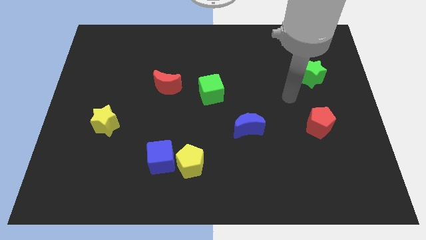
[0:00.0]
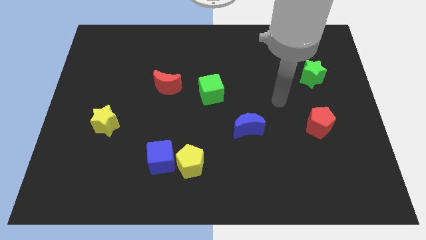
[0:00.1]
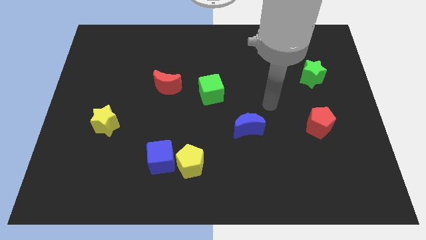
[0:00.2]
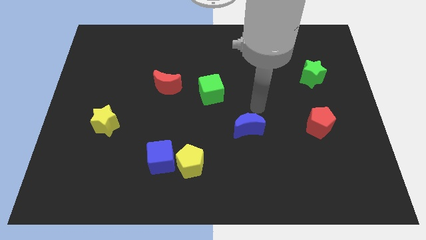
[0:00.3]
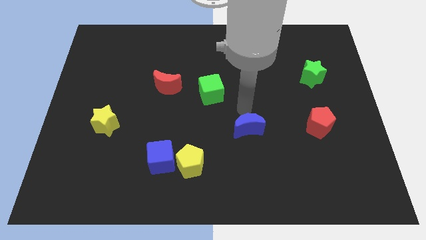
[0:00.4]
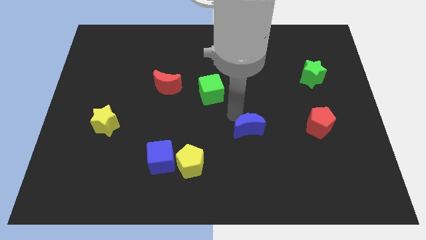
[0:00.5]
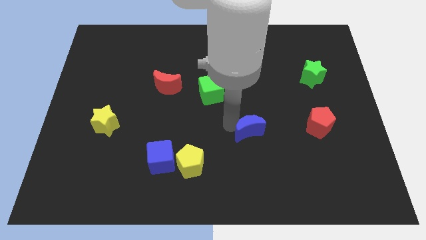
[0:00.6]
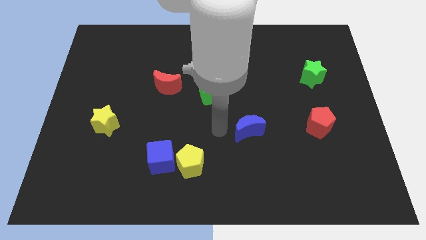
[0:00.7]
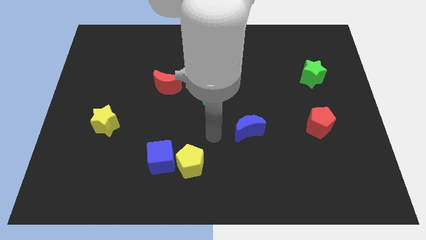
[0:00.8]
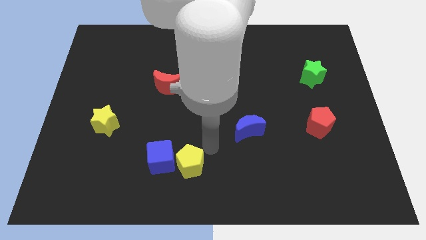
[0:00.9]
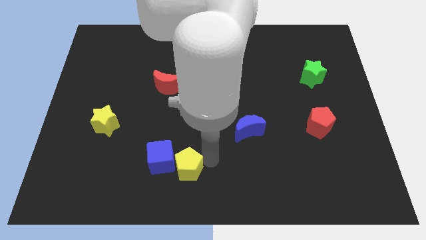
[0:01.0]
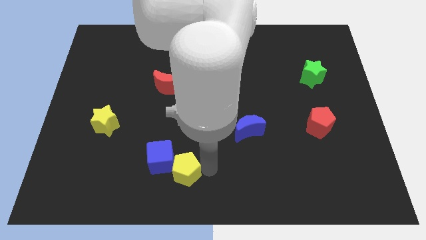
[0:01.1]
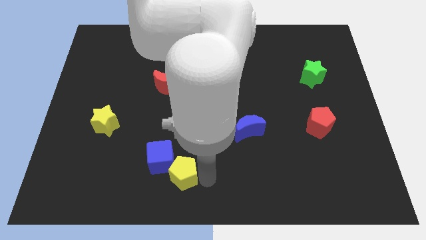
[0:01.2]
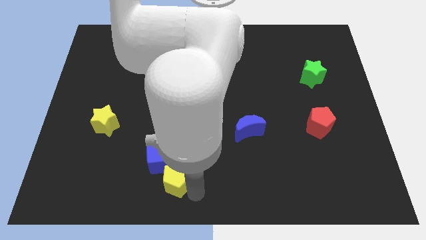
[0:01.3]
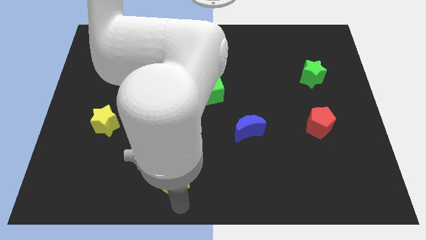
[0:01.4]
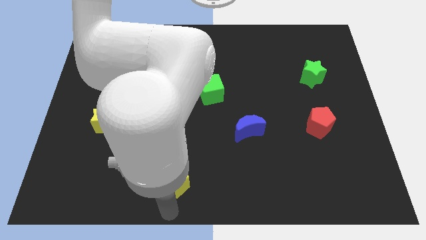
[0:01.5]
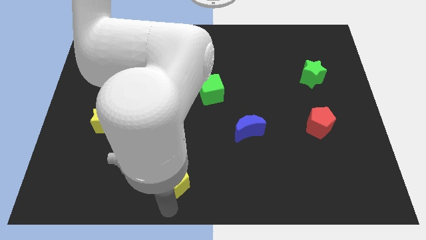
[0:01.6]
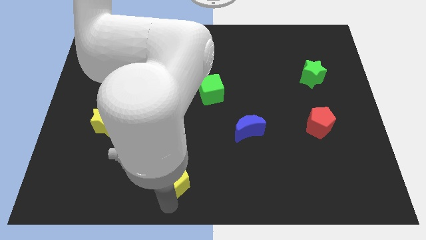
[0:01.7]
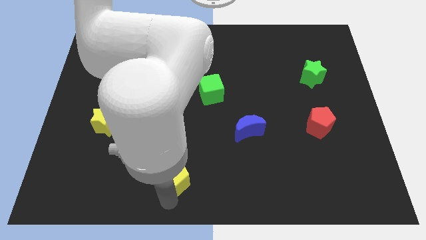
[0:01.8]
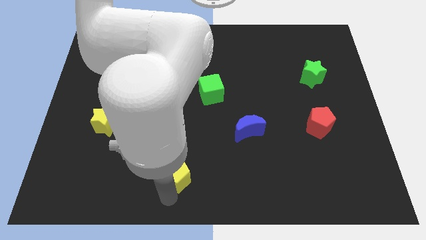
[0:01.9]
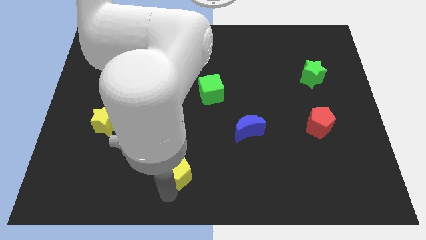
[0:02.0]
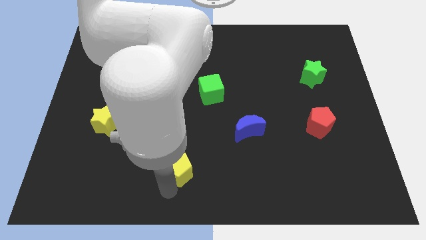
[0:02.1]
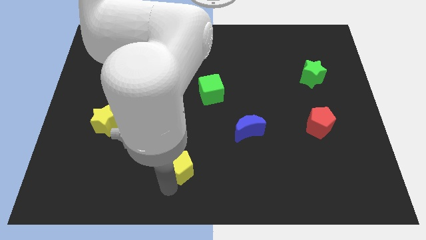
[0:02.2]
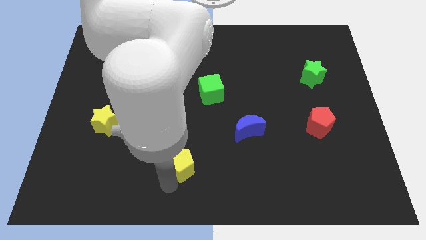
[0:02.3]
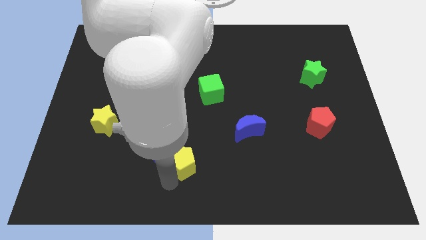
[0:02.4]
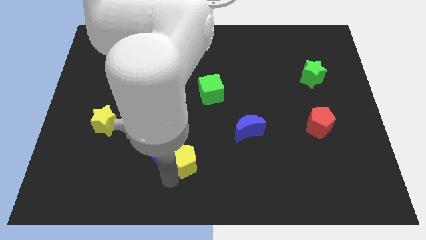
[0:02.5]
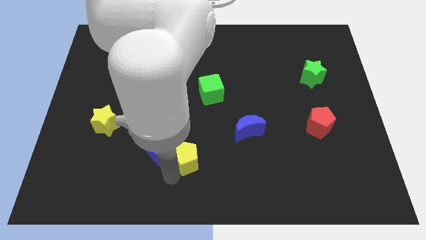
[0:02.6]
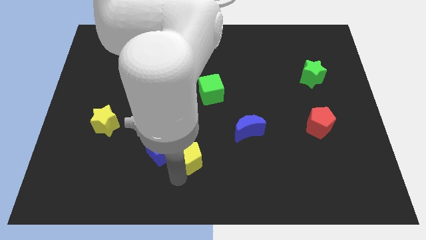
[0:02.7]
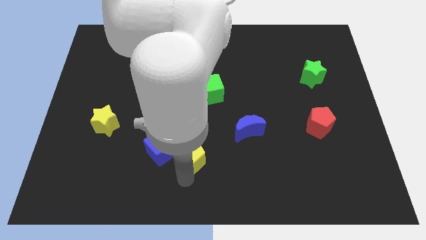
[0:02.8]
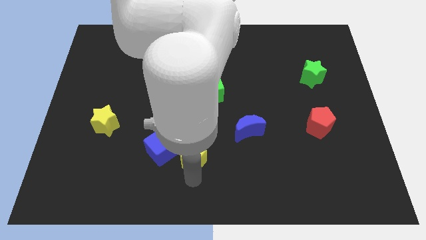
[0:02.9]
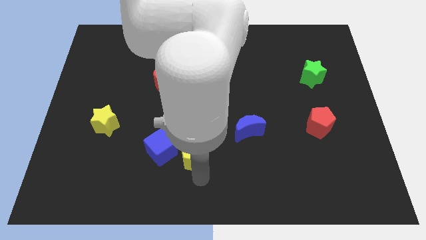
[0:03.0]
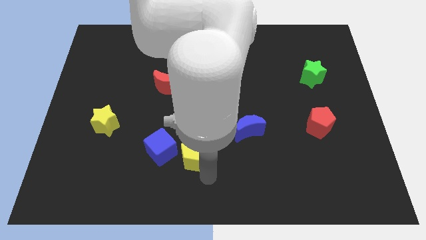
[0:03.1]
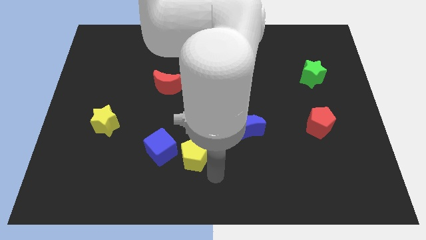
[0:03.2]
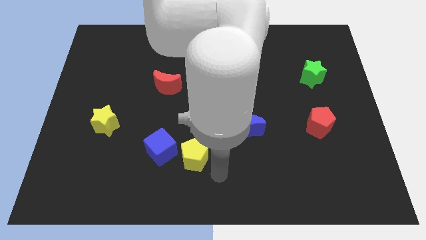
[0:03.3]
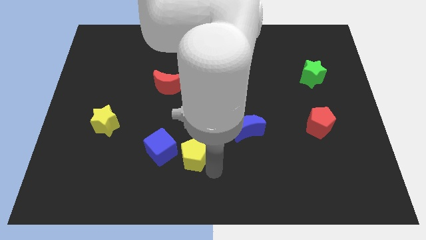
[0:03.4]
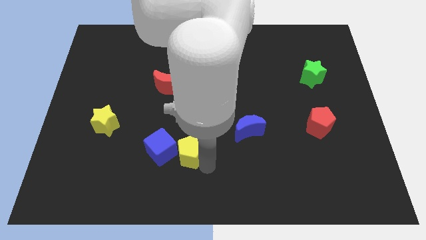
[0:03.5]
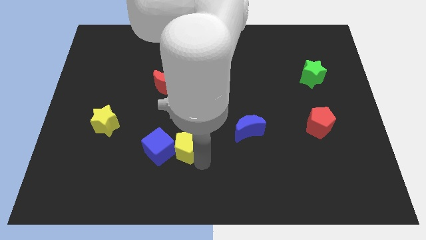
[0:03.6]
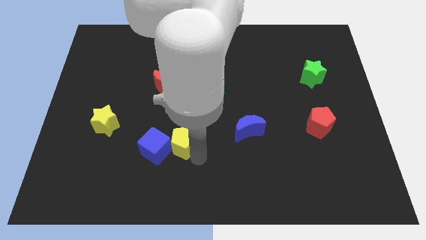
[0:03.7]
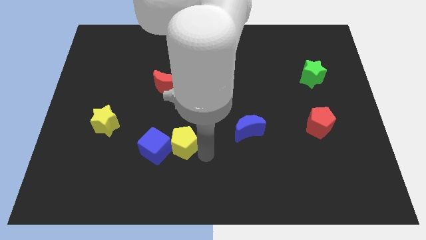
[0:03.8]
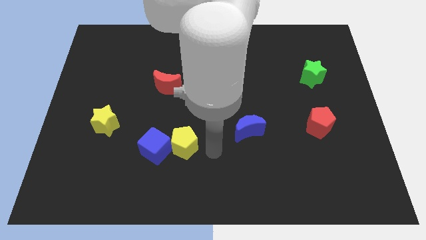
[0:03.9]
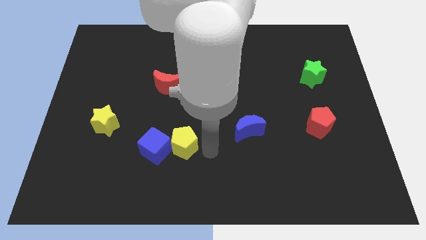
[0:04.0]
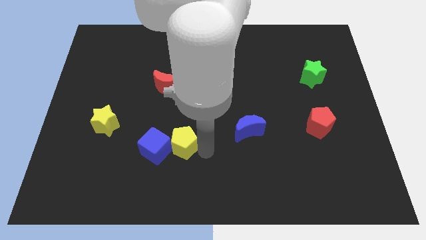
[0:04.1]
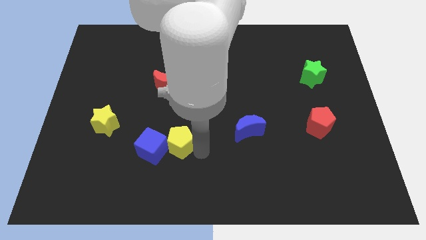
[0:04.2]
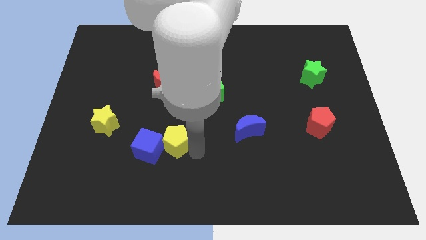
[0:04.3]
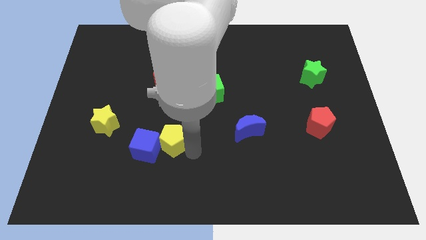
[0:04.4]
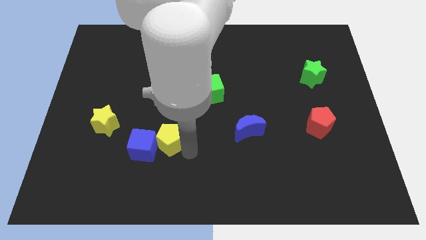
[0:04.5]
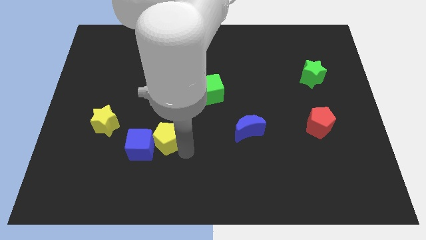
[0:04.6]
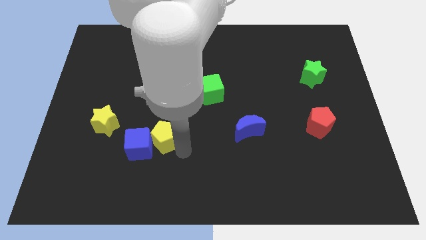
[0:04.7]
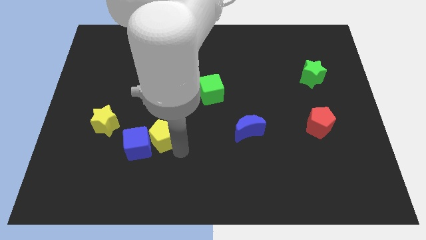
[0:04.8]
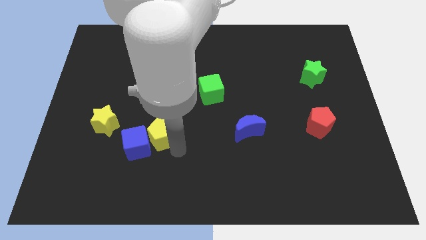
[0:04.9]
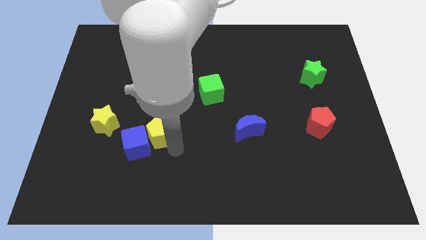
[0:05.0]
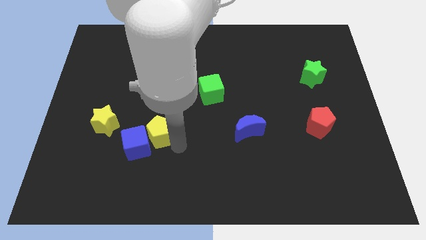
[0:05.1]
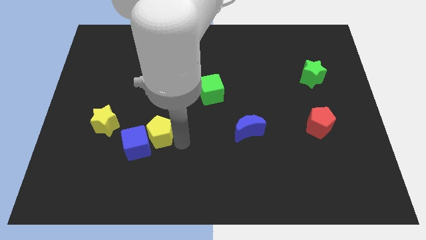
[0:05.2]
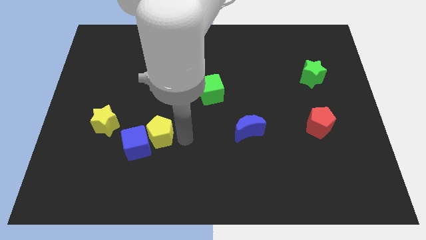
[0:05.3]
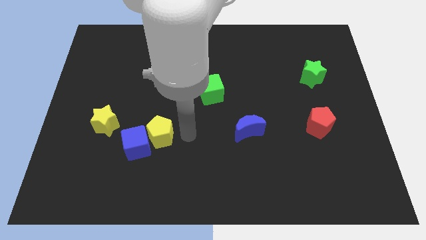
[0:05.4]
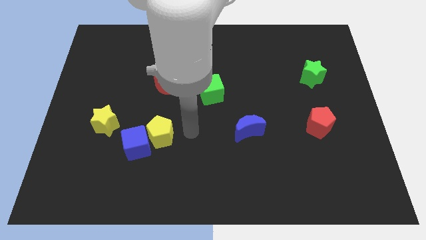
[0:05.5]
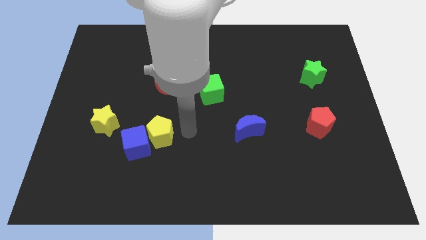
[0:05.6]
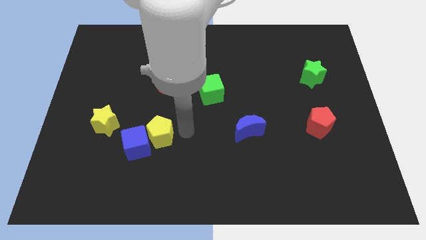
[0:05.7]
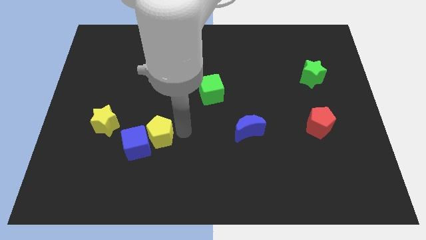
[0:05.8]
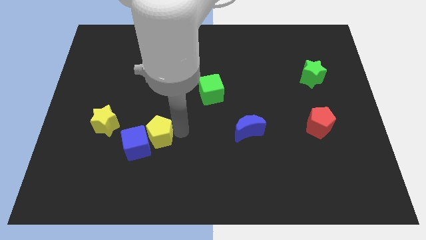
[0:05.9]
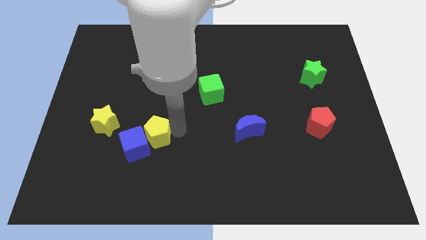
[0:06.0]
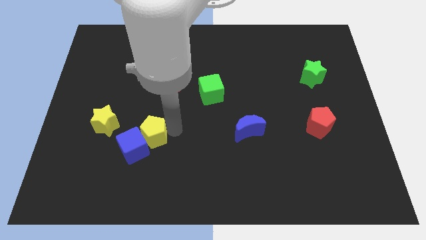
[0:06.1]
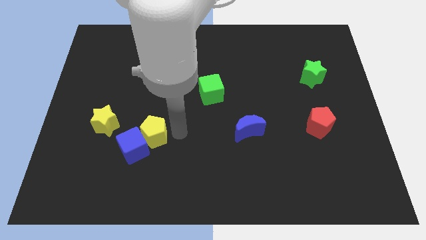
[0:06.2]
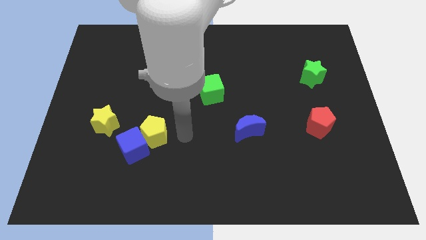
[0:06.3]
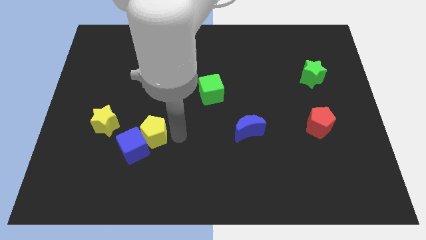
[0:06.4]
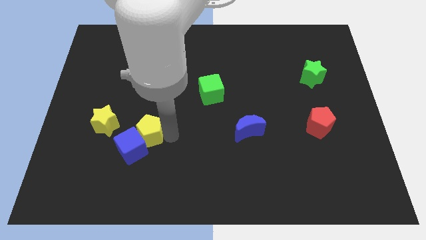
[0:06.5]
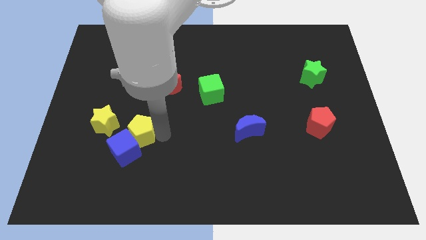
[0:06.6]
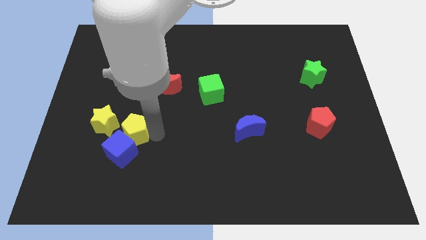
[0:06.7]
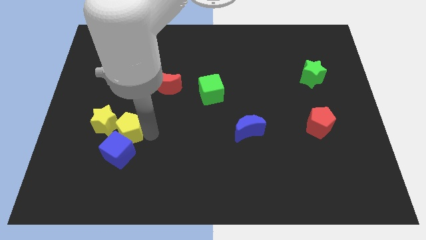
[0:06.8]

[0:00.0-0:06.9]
push the yellow pentagon to the yellow star

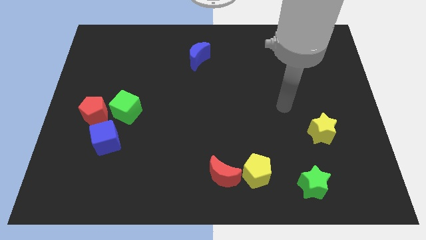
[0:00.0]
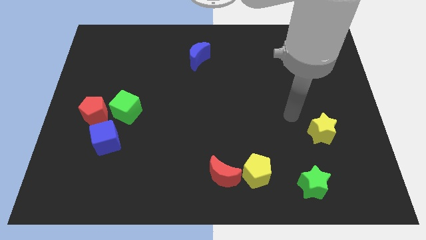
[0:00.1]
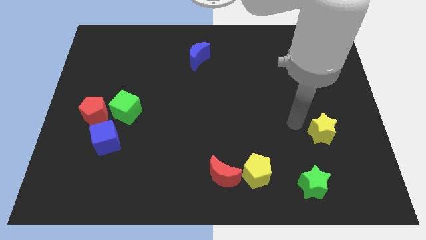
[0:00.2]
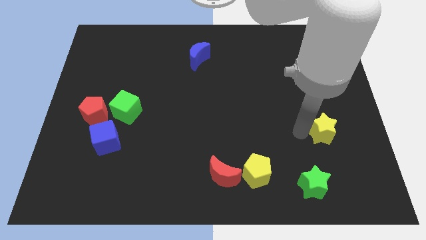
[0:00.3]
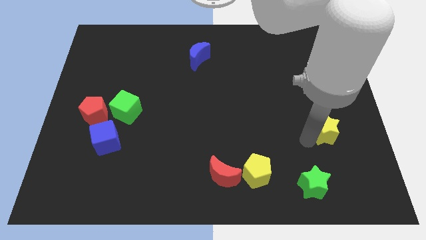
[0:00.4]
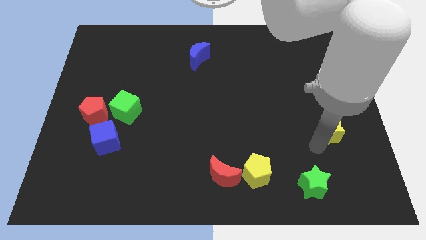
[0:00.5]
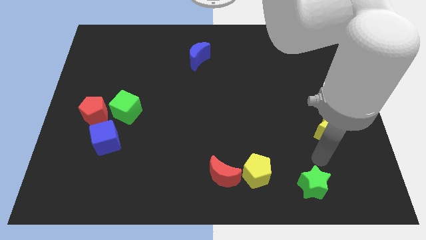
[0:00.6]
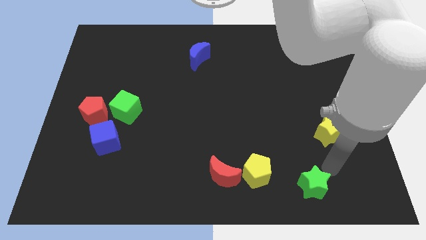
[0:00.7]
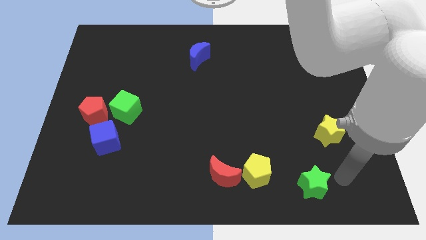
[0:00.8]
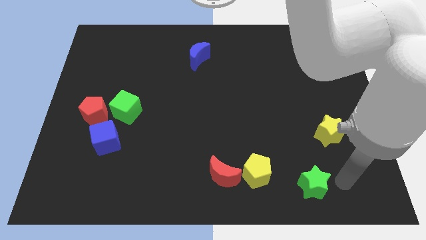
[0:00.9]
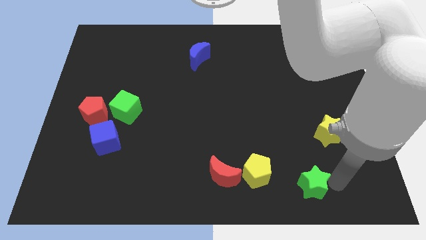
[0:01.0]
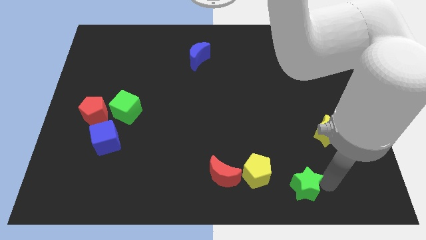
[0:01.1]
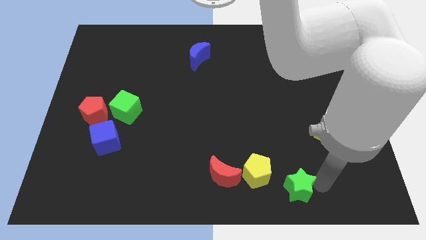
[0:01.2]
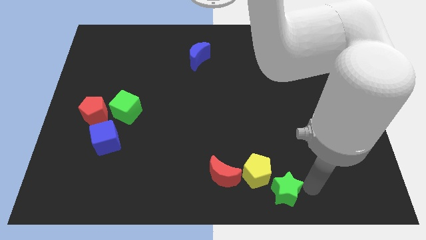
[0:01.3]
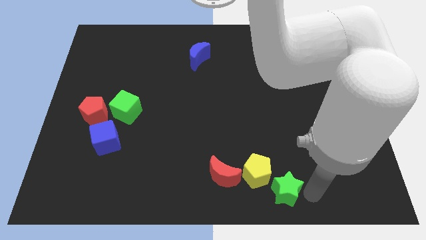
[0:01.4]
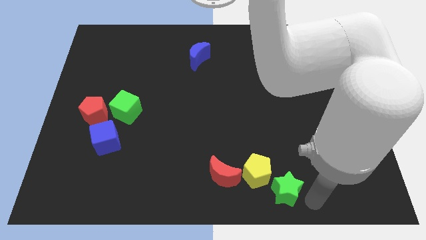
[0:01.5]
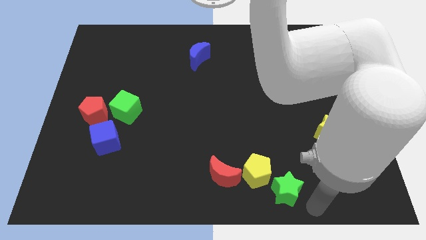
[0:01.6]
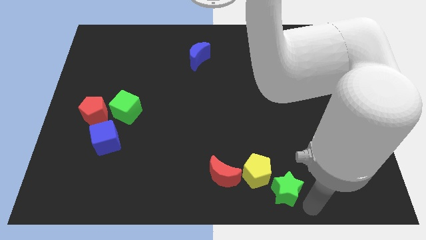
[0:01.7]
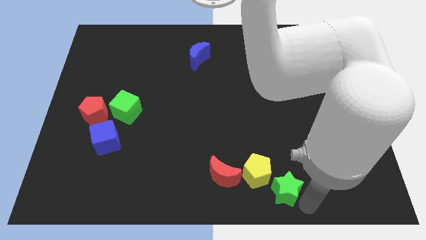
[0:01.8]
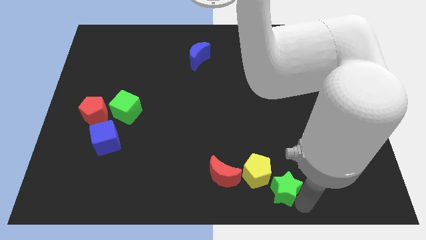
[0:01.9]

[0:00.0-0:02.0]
put the green star next to the yellow pentagon
